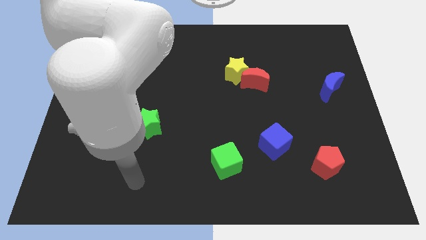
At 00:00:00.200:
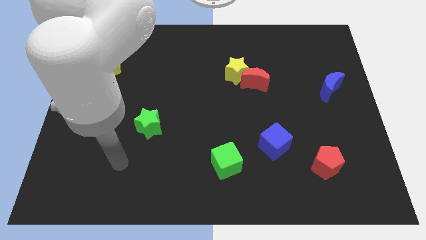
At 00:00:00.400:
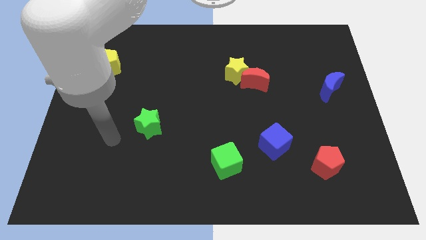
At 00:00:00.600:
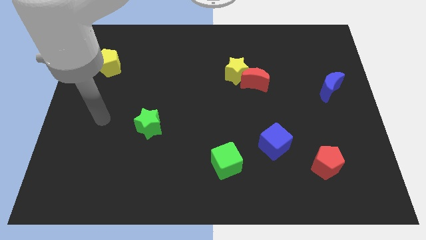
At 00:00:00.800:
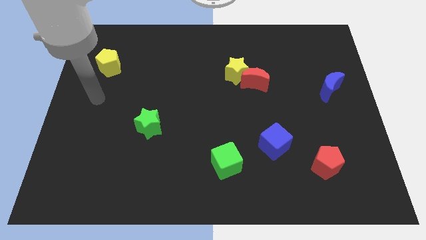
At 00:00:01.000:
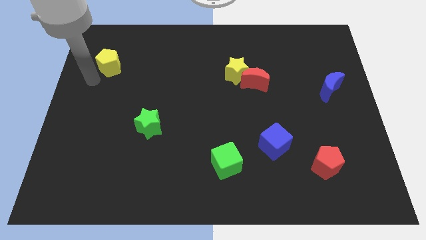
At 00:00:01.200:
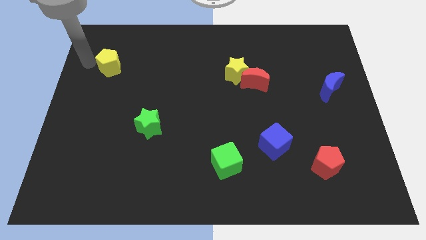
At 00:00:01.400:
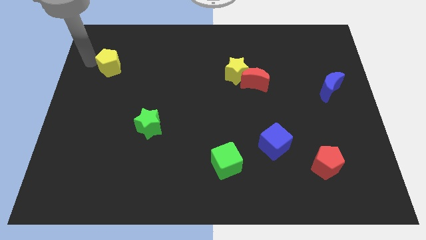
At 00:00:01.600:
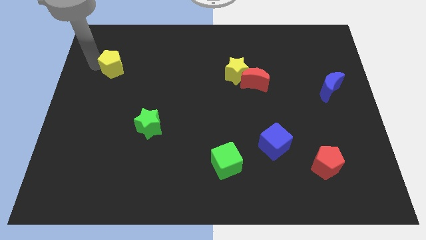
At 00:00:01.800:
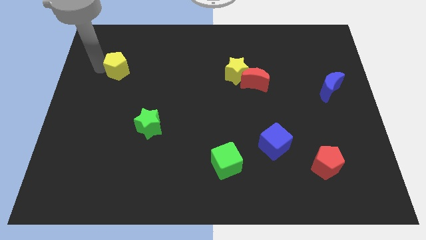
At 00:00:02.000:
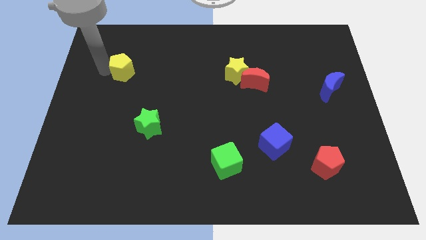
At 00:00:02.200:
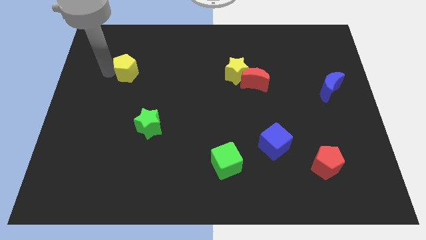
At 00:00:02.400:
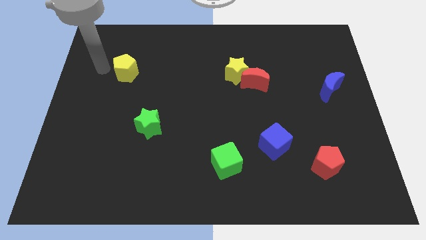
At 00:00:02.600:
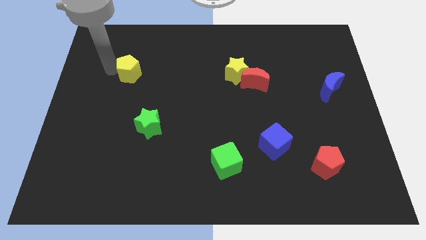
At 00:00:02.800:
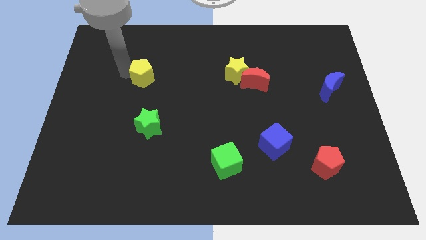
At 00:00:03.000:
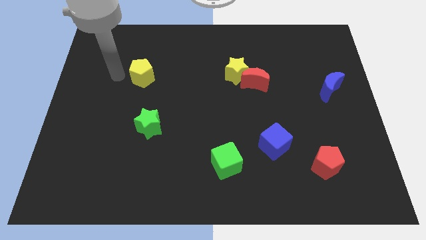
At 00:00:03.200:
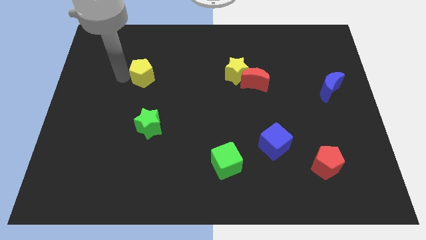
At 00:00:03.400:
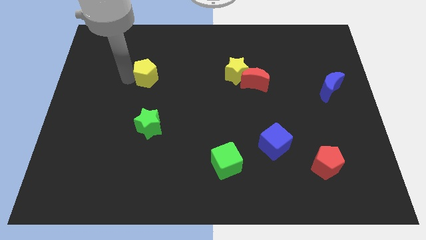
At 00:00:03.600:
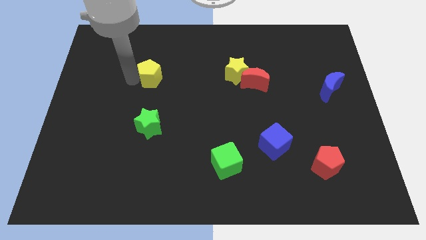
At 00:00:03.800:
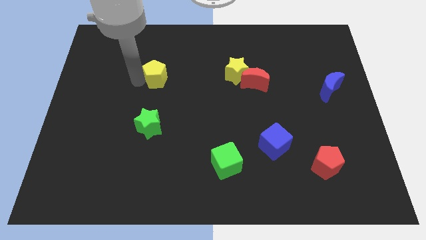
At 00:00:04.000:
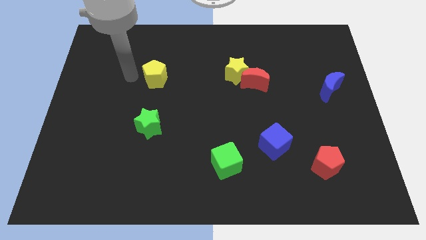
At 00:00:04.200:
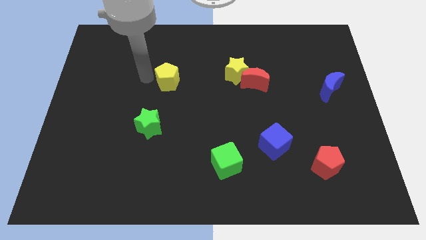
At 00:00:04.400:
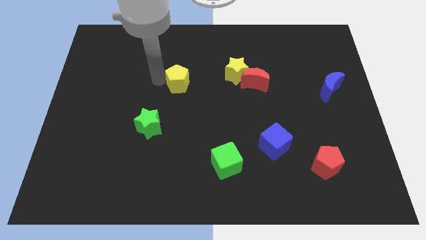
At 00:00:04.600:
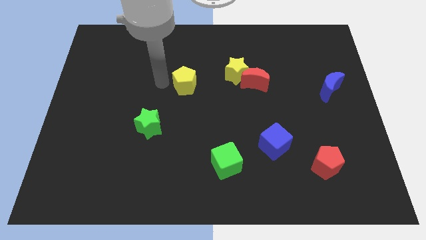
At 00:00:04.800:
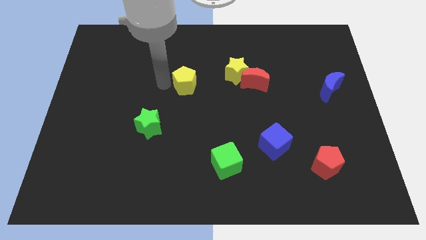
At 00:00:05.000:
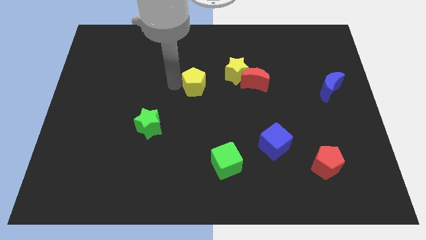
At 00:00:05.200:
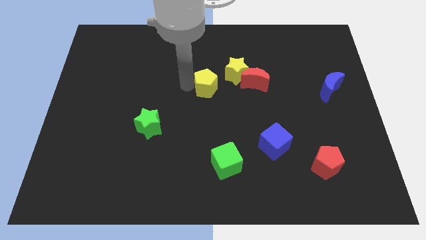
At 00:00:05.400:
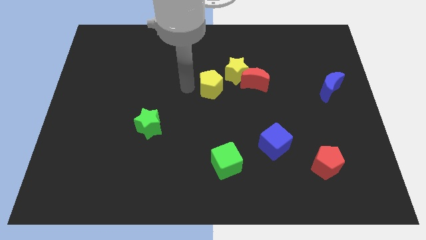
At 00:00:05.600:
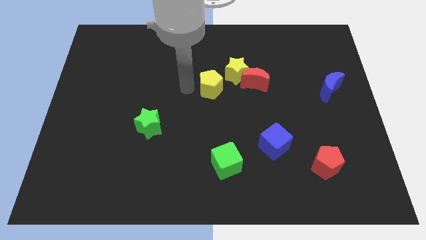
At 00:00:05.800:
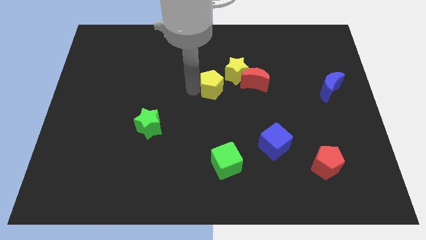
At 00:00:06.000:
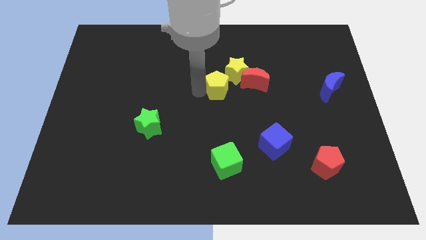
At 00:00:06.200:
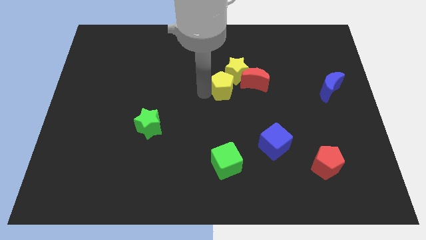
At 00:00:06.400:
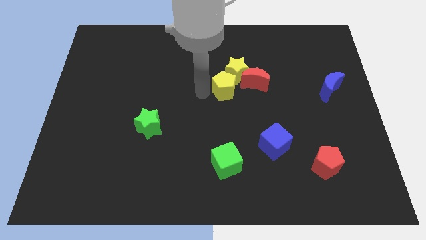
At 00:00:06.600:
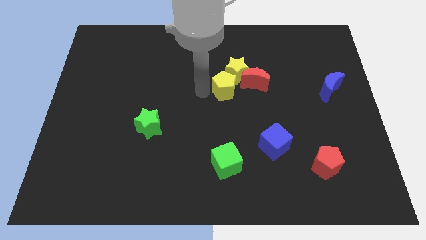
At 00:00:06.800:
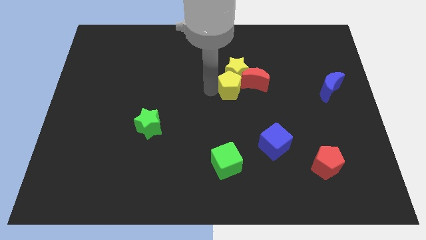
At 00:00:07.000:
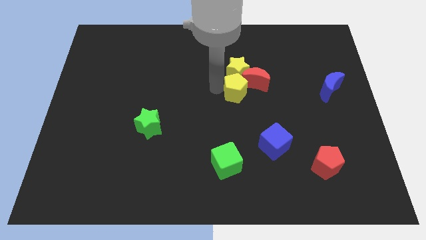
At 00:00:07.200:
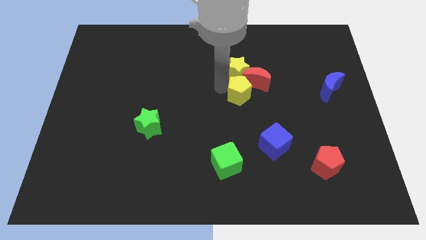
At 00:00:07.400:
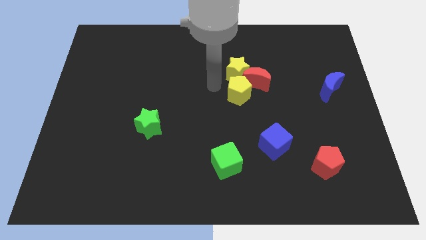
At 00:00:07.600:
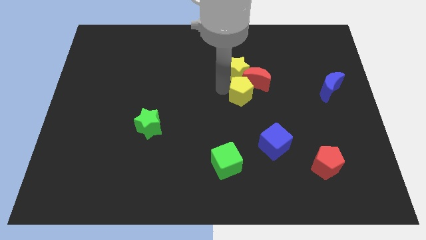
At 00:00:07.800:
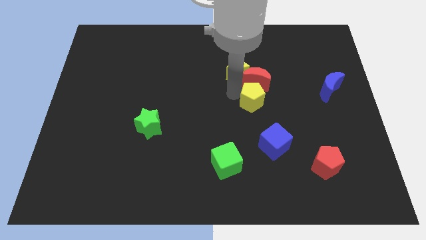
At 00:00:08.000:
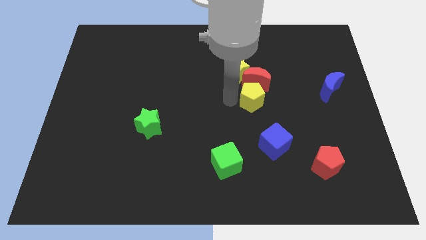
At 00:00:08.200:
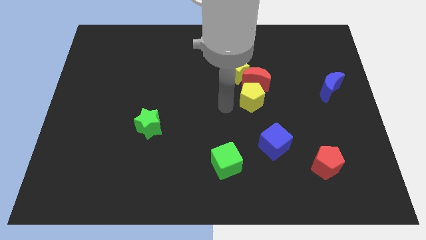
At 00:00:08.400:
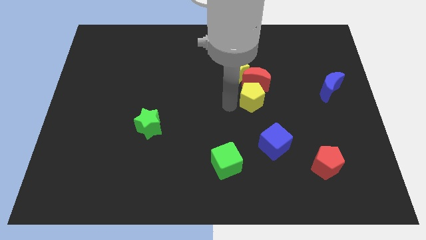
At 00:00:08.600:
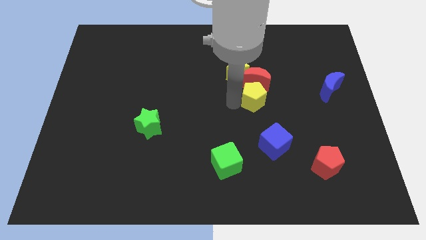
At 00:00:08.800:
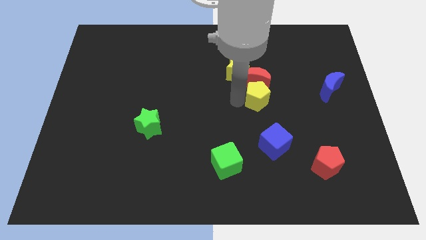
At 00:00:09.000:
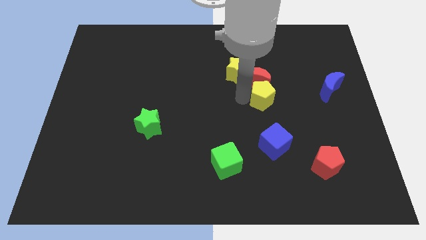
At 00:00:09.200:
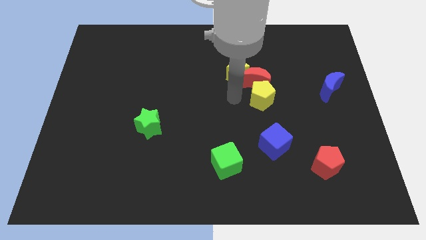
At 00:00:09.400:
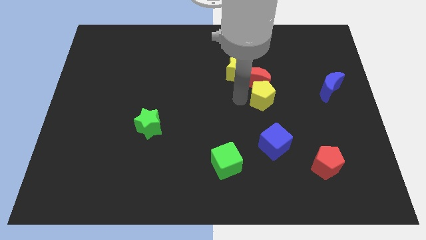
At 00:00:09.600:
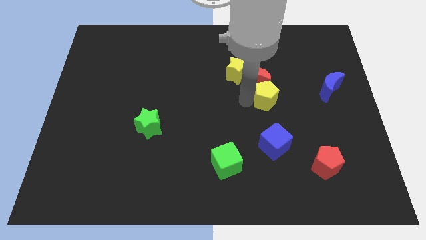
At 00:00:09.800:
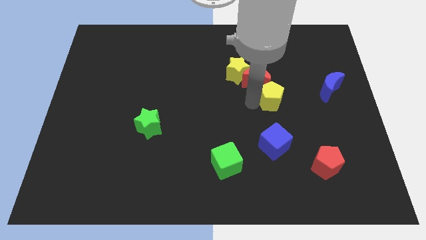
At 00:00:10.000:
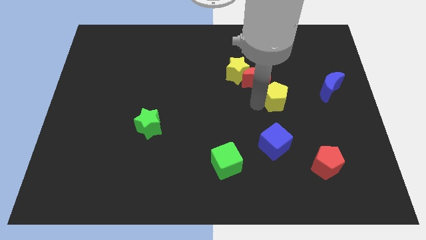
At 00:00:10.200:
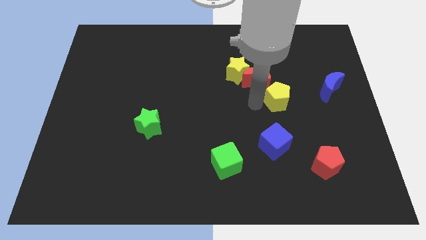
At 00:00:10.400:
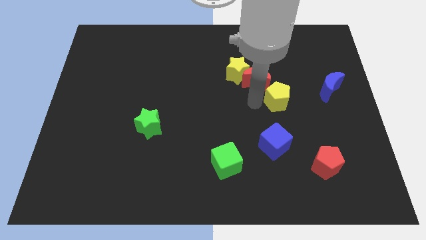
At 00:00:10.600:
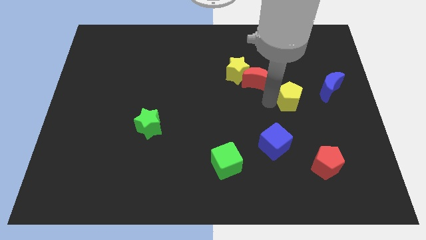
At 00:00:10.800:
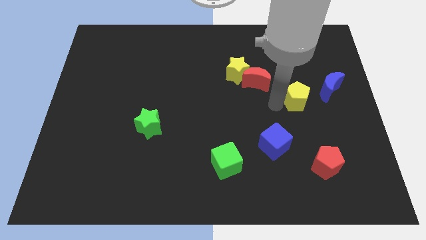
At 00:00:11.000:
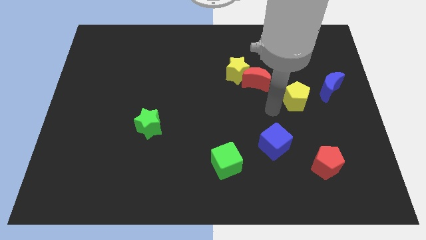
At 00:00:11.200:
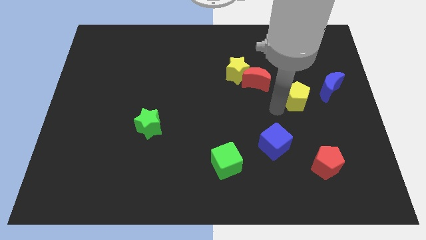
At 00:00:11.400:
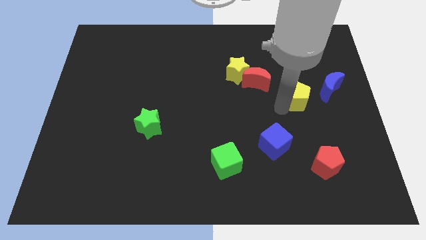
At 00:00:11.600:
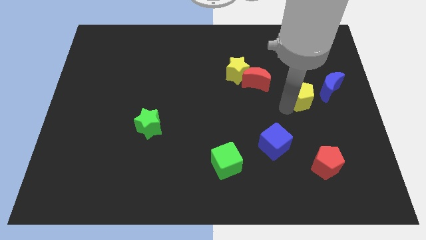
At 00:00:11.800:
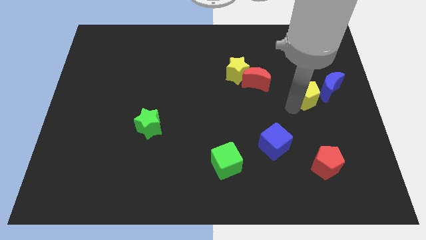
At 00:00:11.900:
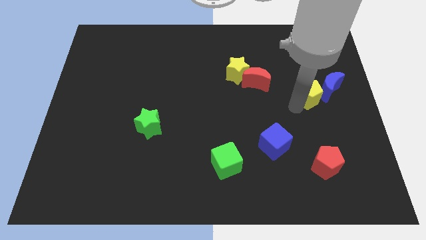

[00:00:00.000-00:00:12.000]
put the yellow pentagon close to the blue moon

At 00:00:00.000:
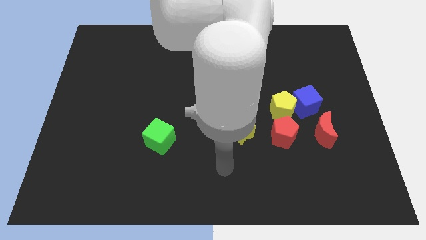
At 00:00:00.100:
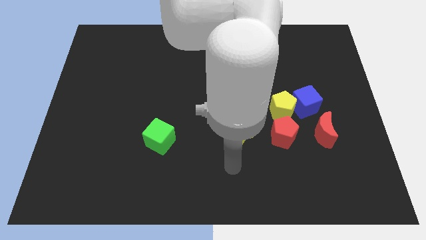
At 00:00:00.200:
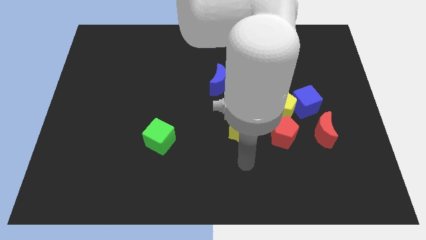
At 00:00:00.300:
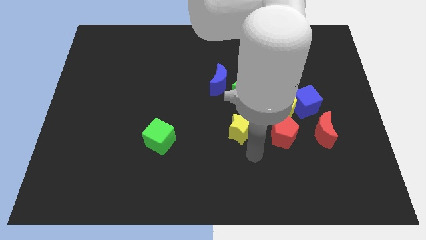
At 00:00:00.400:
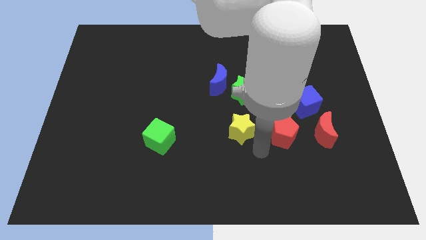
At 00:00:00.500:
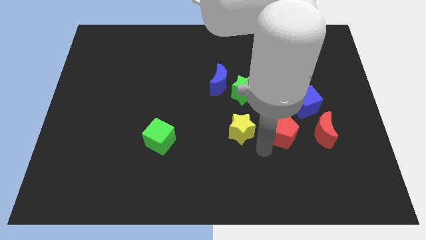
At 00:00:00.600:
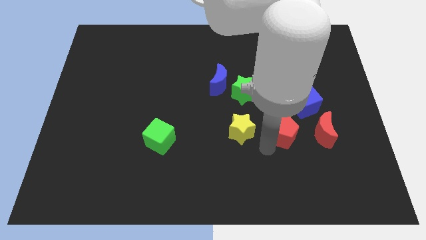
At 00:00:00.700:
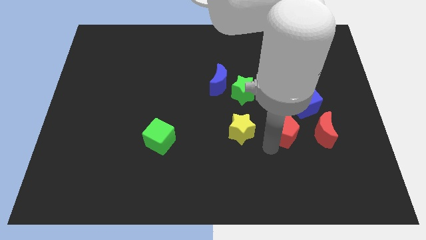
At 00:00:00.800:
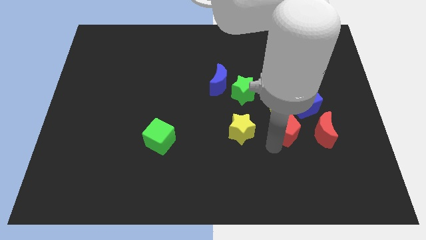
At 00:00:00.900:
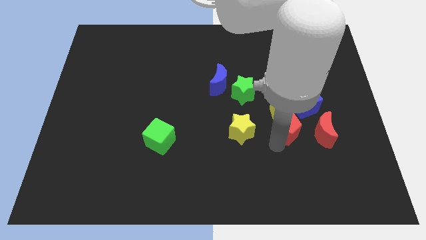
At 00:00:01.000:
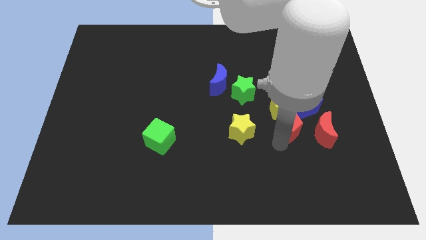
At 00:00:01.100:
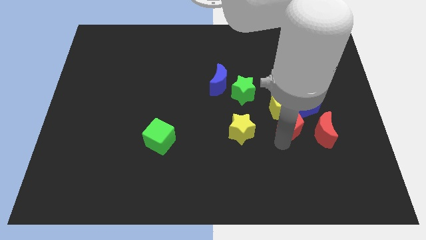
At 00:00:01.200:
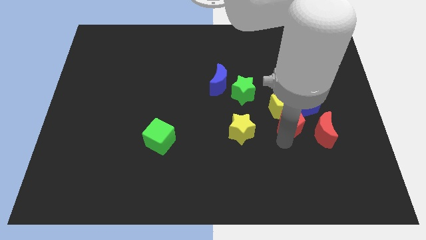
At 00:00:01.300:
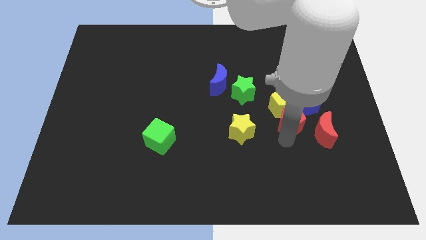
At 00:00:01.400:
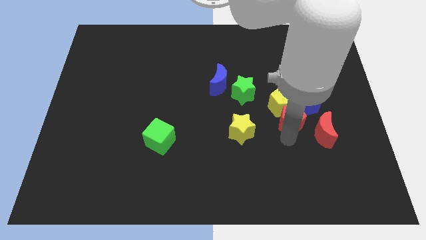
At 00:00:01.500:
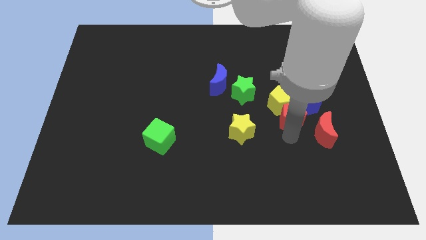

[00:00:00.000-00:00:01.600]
push the red pentagon close to the blue cube
